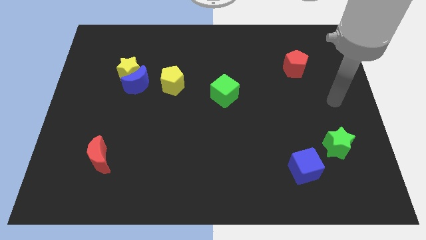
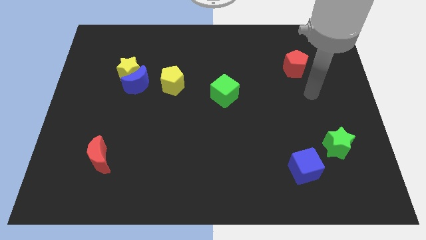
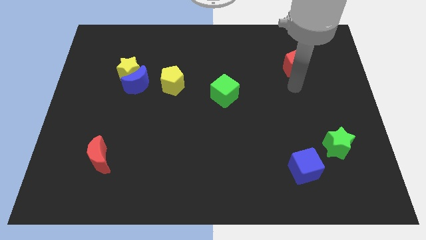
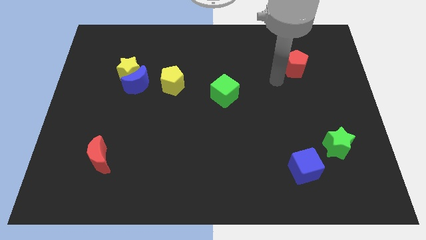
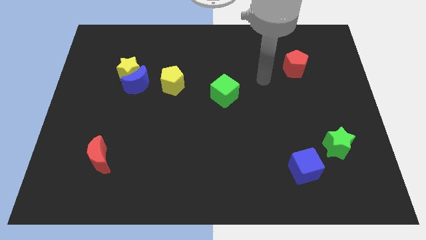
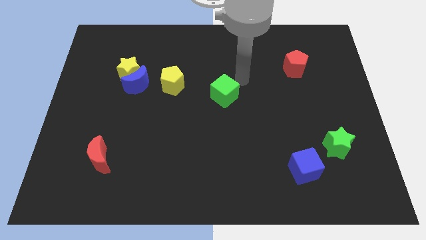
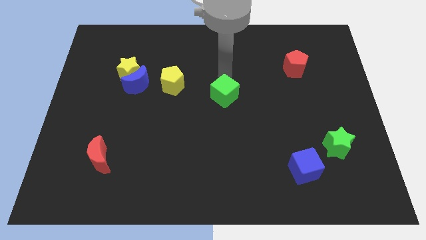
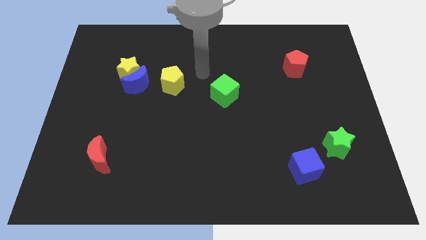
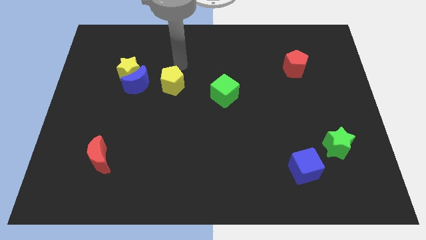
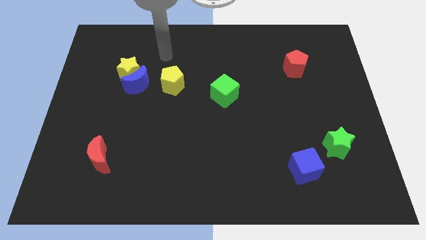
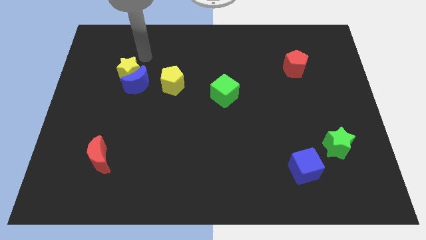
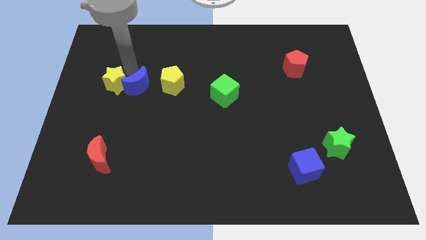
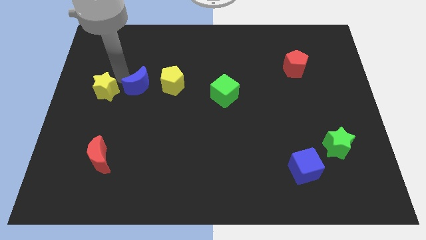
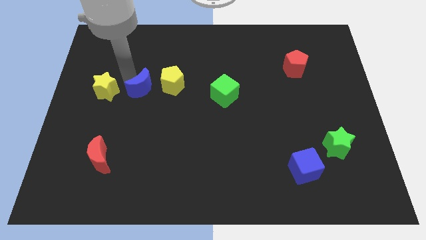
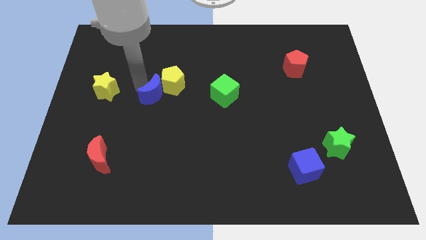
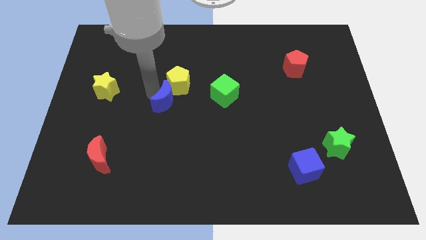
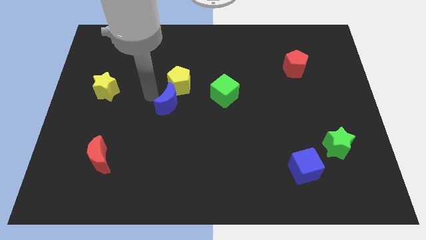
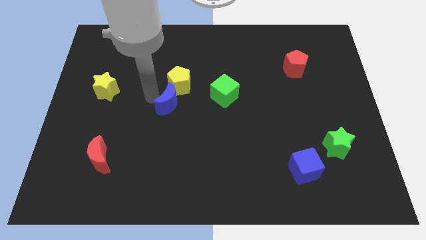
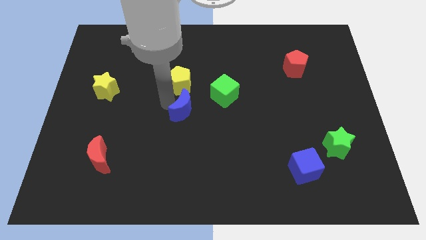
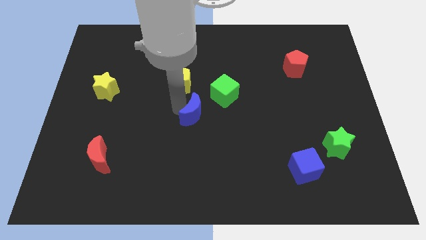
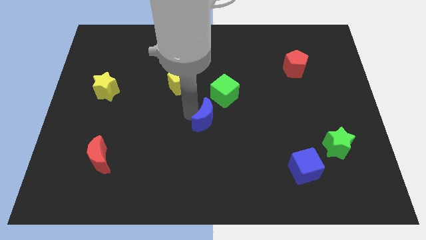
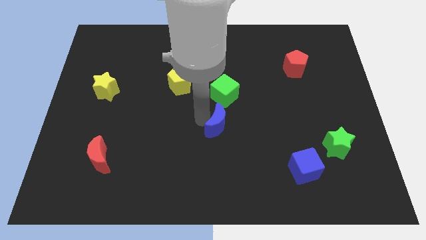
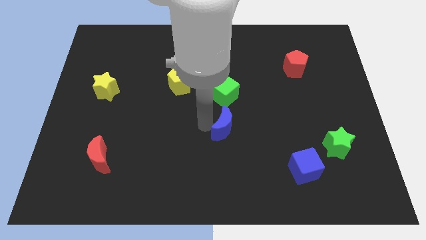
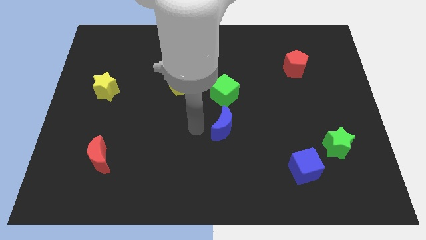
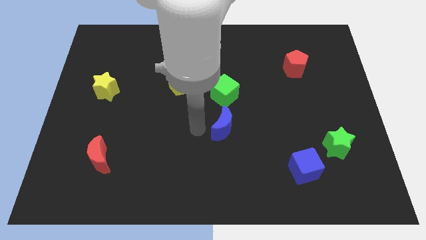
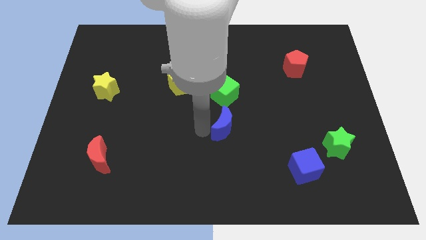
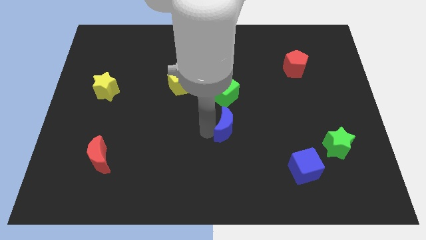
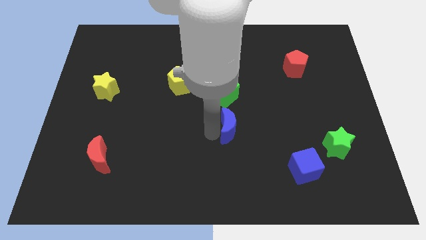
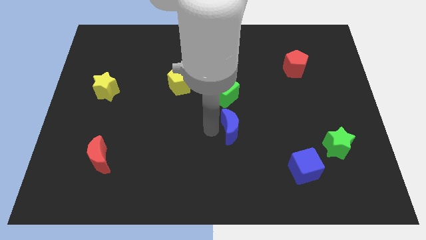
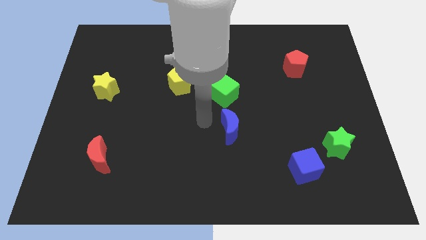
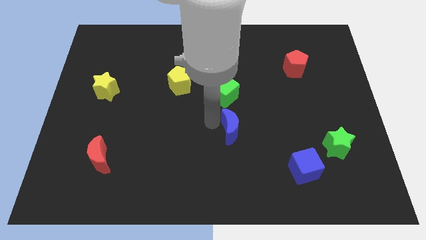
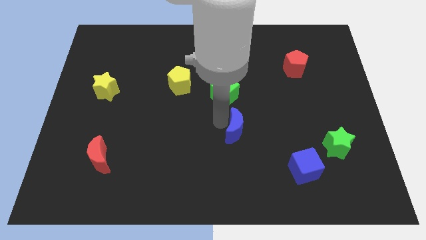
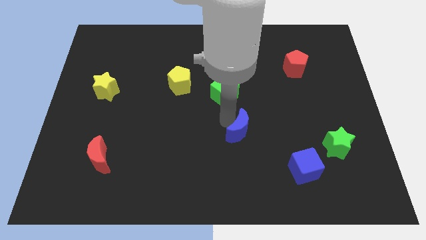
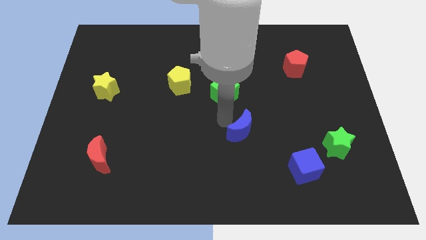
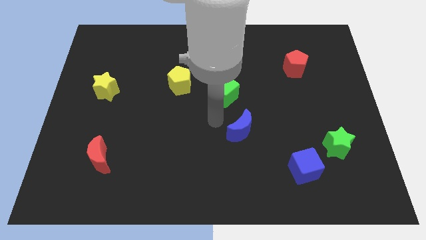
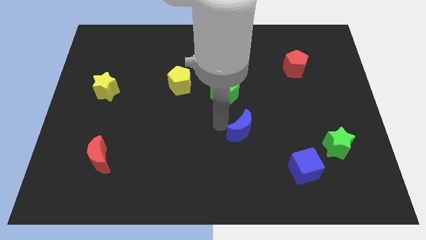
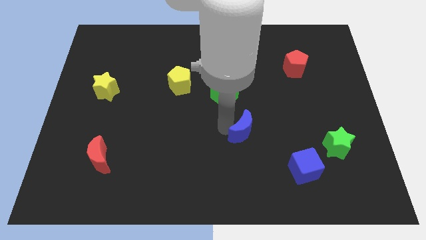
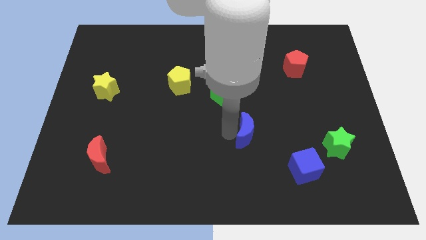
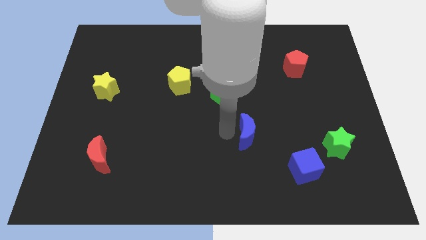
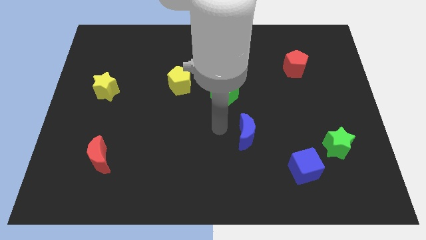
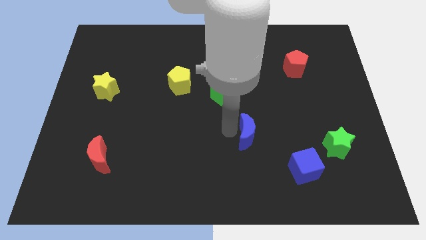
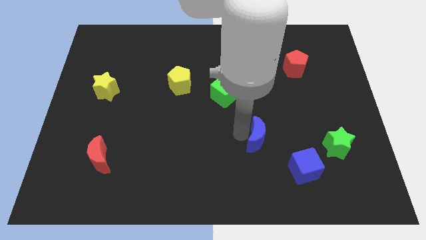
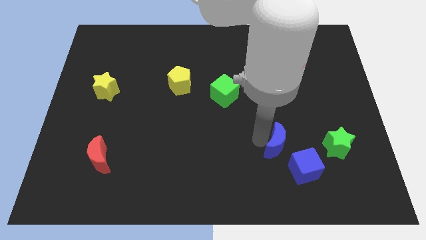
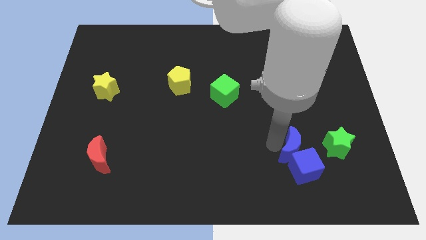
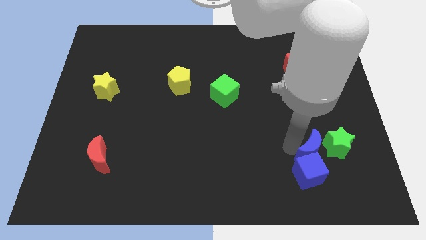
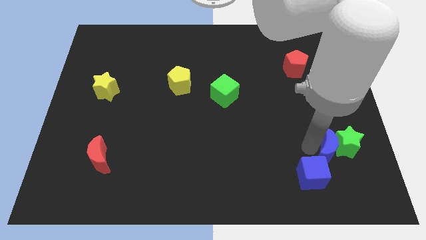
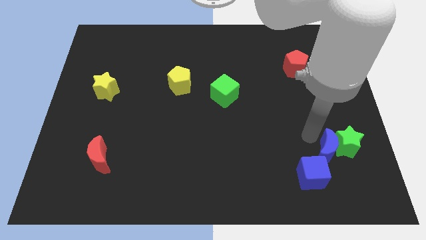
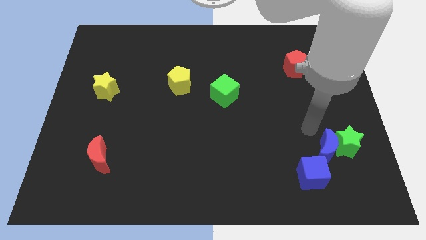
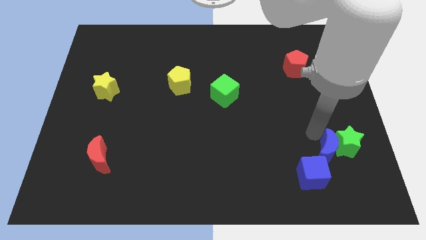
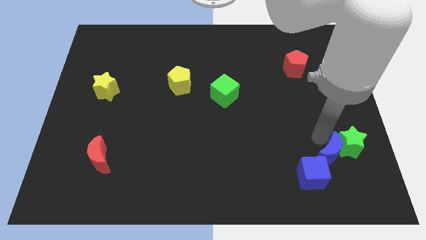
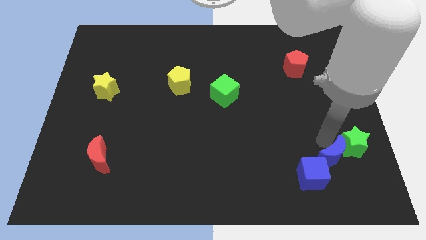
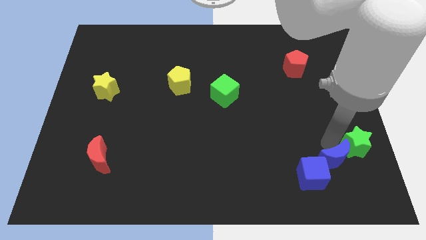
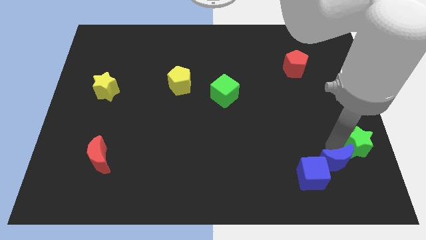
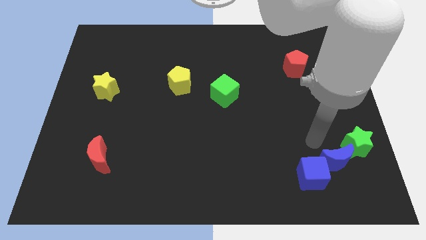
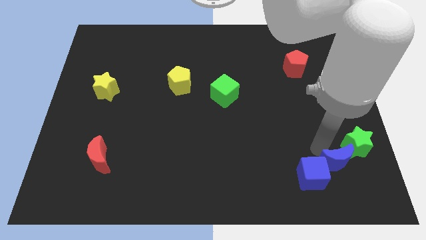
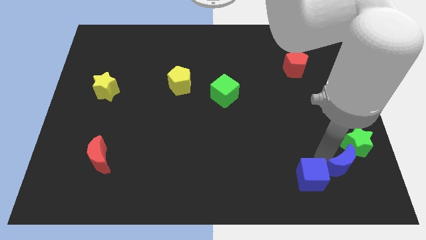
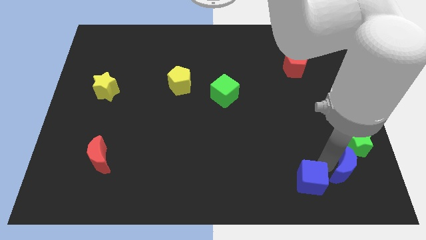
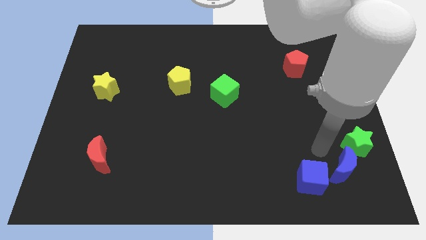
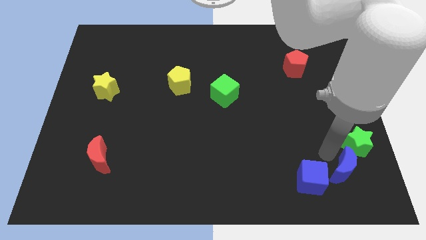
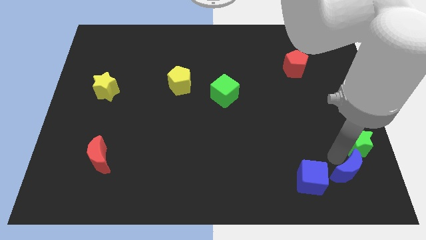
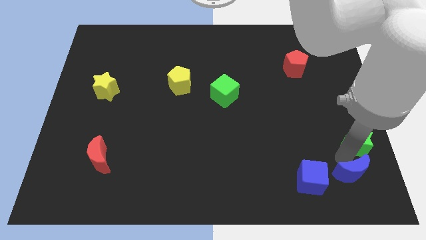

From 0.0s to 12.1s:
put the blue moon to the bottom right
